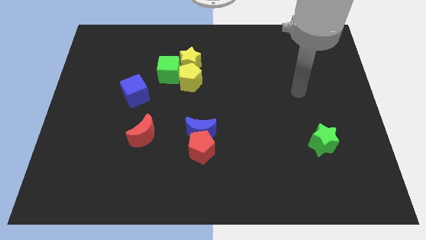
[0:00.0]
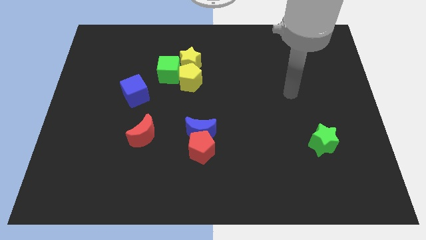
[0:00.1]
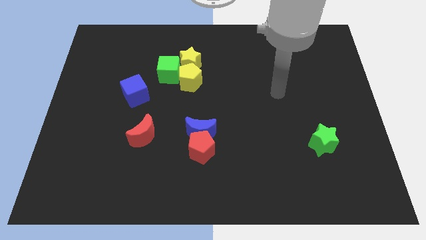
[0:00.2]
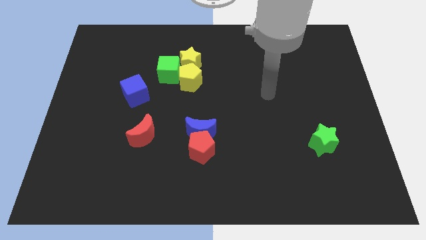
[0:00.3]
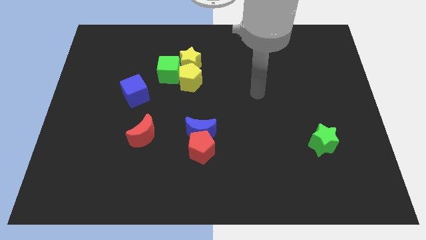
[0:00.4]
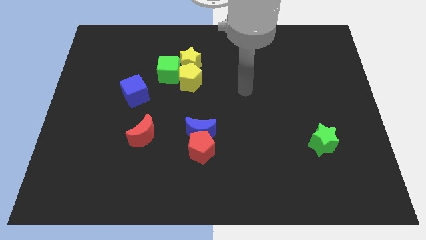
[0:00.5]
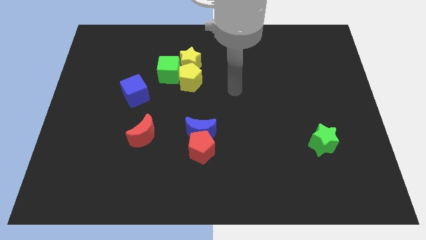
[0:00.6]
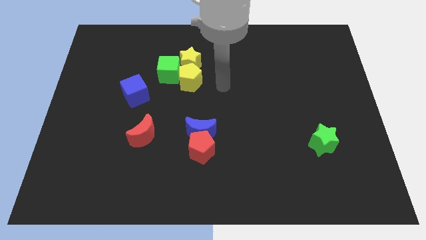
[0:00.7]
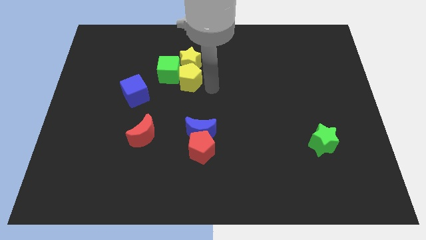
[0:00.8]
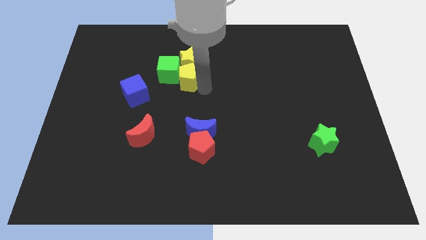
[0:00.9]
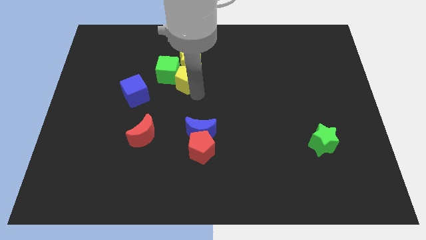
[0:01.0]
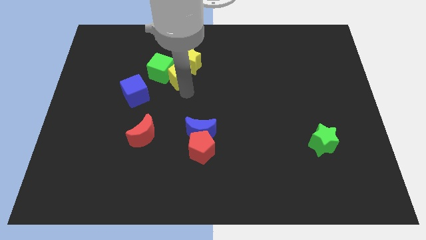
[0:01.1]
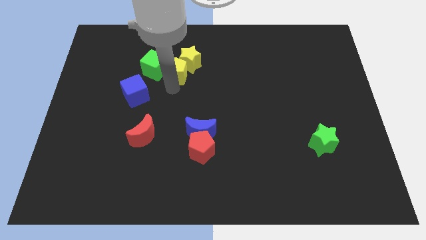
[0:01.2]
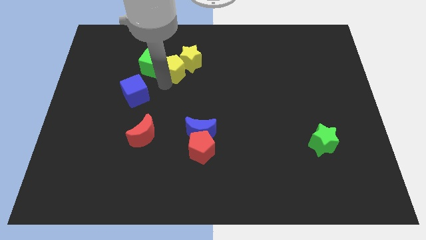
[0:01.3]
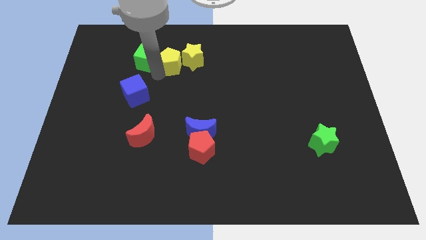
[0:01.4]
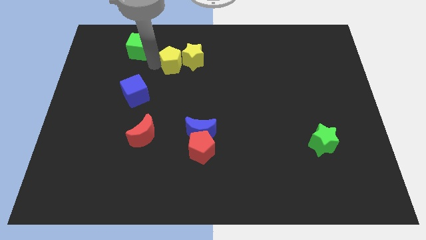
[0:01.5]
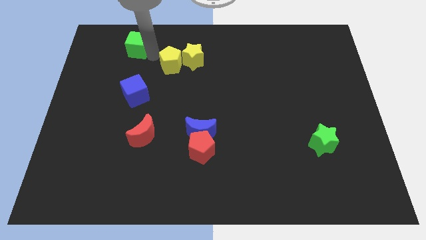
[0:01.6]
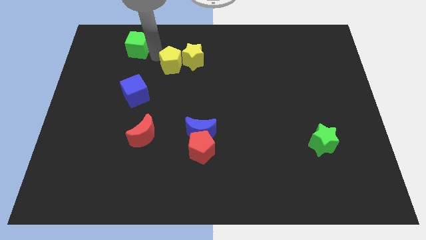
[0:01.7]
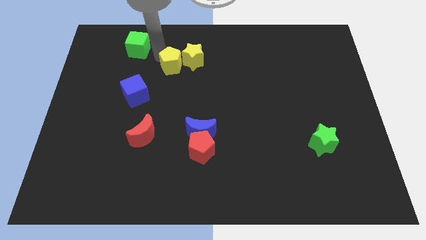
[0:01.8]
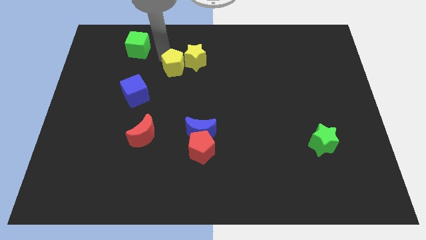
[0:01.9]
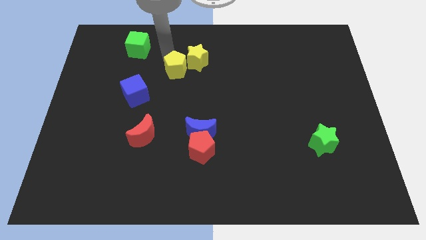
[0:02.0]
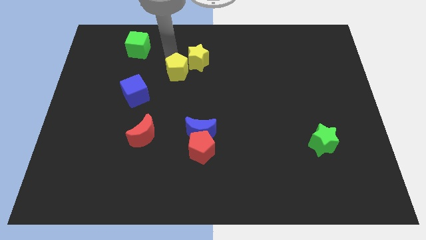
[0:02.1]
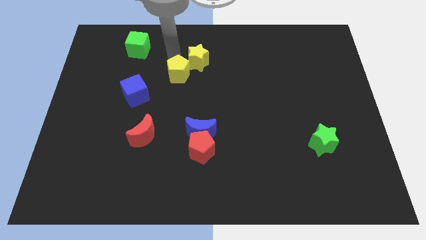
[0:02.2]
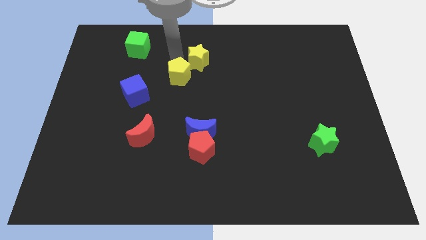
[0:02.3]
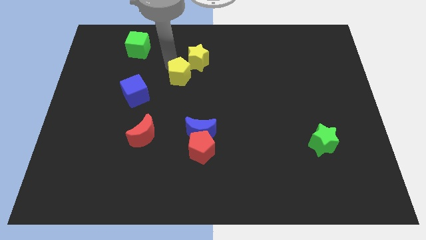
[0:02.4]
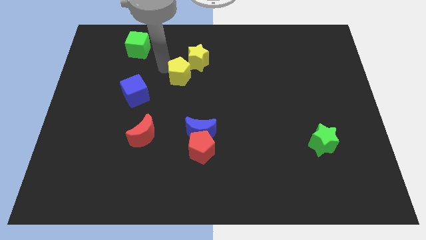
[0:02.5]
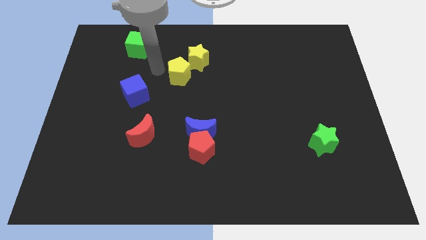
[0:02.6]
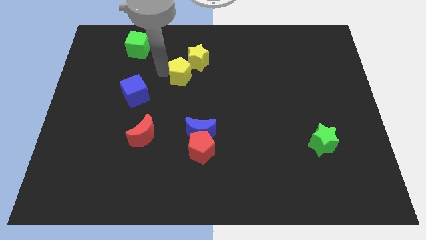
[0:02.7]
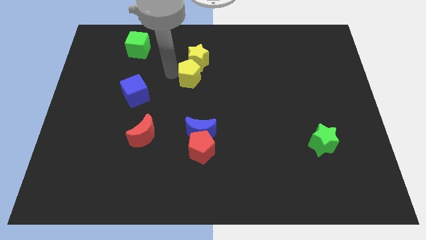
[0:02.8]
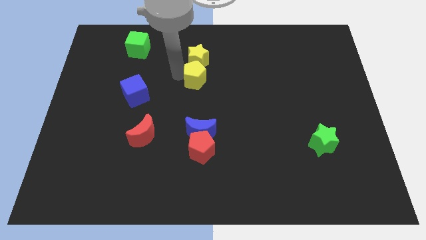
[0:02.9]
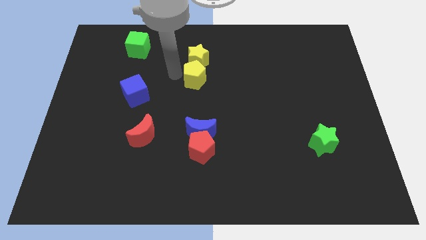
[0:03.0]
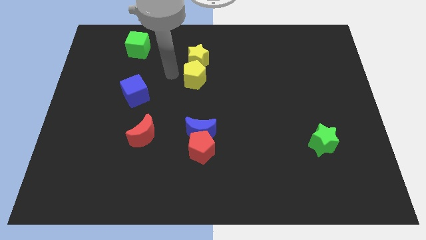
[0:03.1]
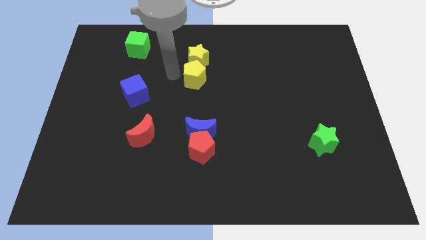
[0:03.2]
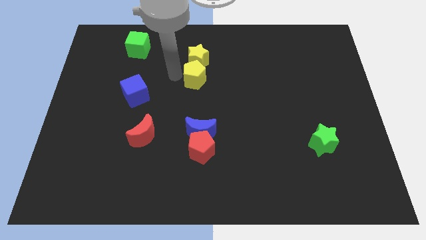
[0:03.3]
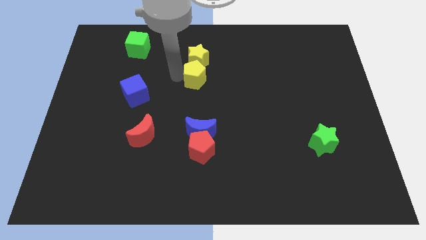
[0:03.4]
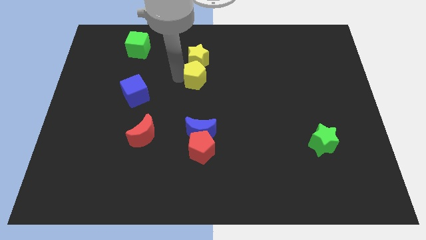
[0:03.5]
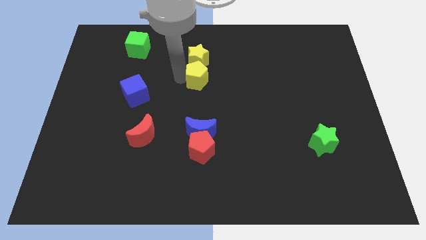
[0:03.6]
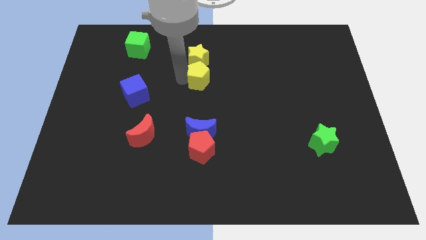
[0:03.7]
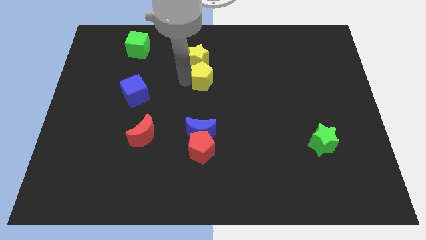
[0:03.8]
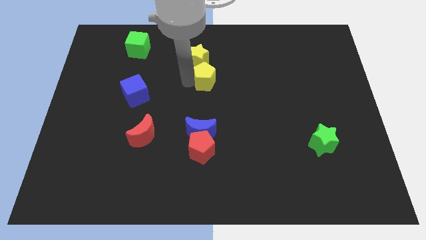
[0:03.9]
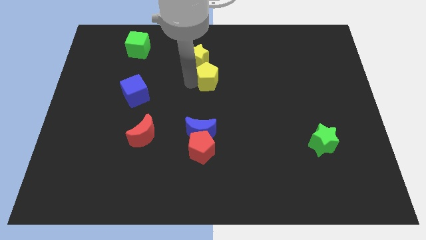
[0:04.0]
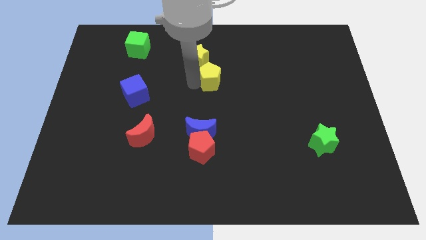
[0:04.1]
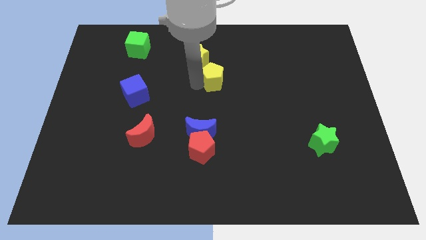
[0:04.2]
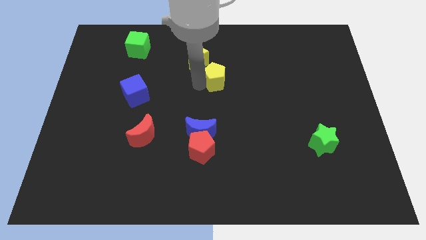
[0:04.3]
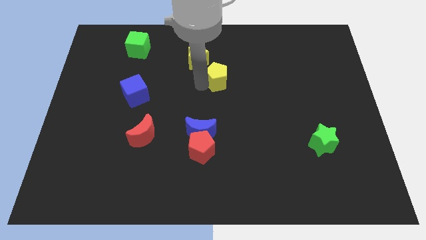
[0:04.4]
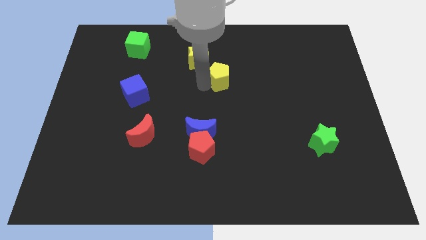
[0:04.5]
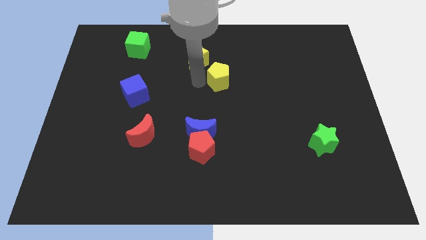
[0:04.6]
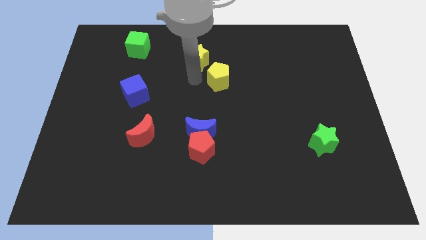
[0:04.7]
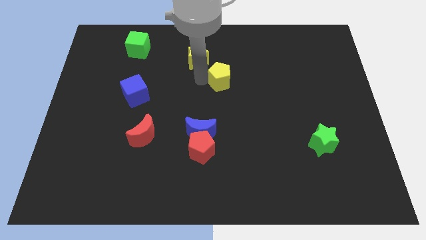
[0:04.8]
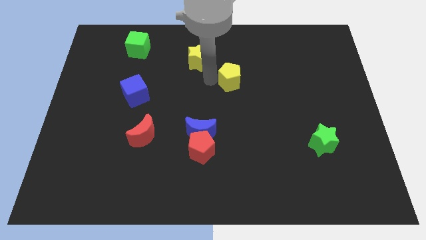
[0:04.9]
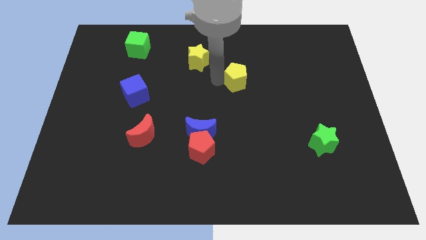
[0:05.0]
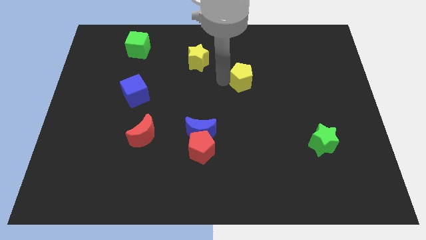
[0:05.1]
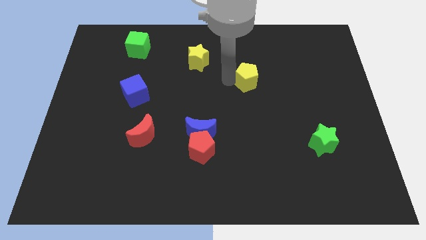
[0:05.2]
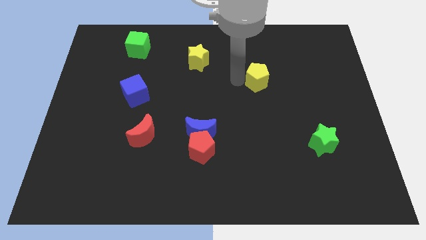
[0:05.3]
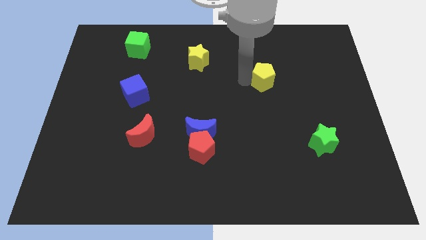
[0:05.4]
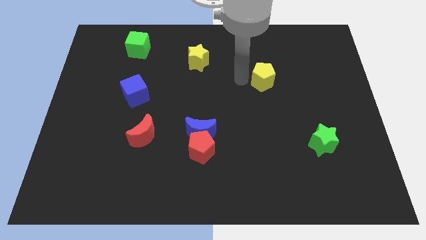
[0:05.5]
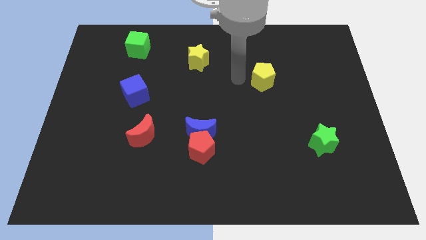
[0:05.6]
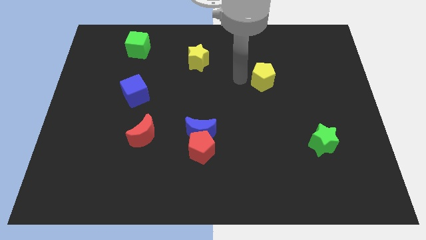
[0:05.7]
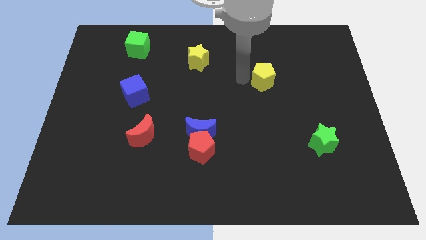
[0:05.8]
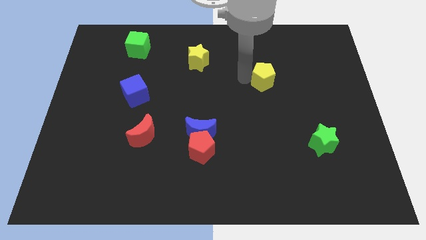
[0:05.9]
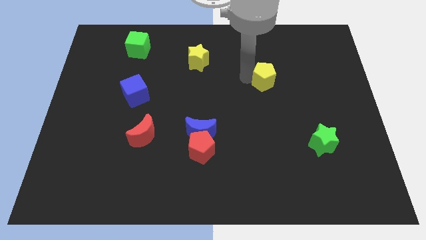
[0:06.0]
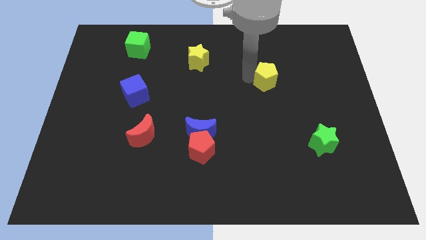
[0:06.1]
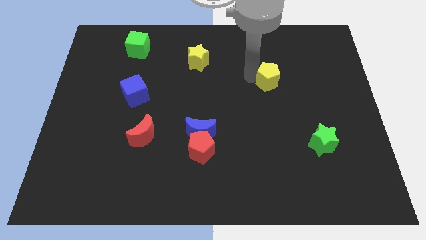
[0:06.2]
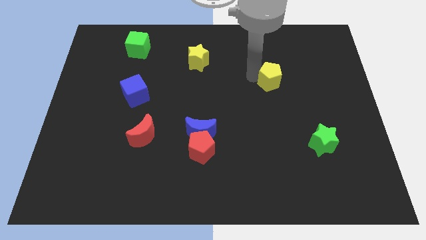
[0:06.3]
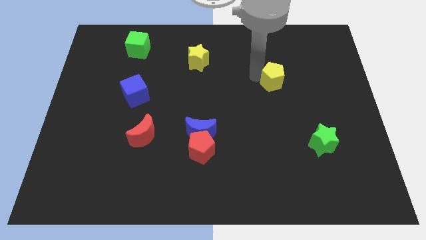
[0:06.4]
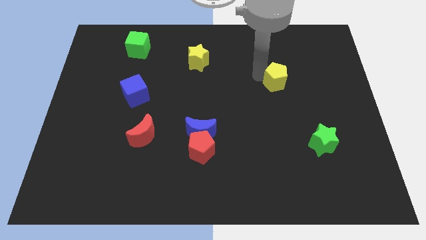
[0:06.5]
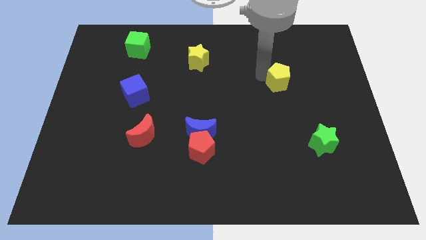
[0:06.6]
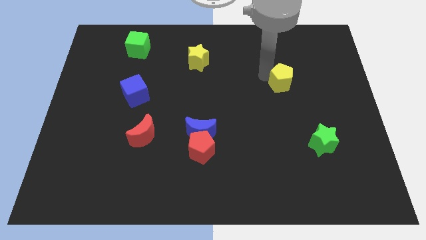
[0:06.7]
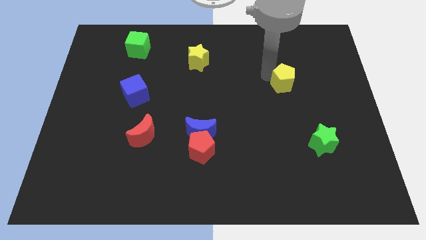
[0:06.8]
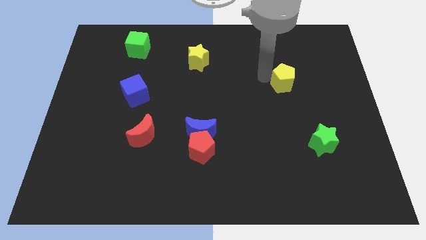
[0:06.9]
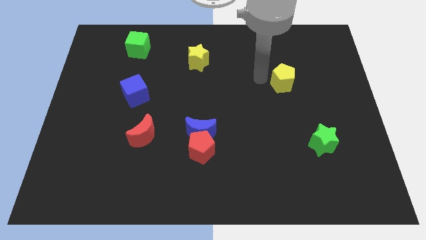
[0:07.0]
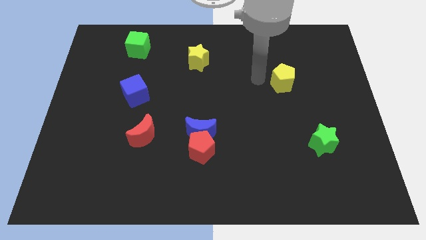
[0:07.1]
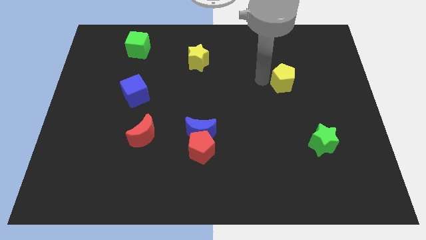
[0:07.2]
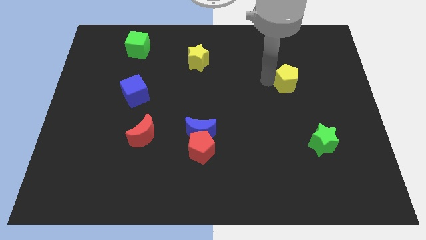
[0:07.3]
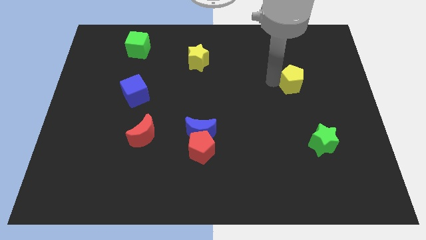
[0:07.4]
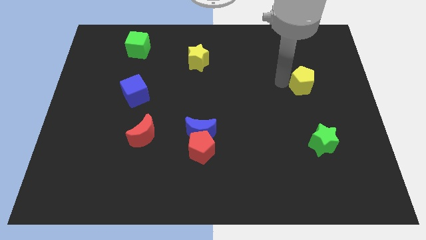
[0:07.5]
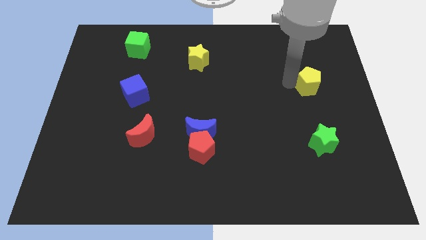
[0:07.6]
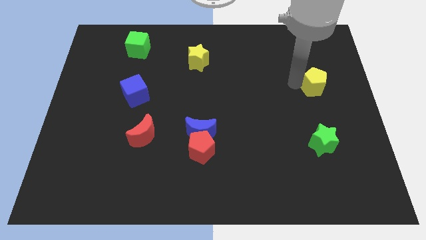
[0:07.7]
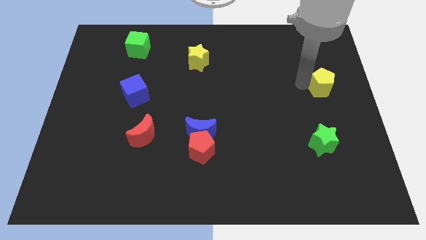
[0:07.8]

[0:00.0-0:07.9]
move the yellow pentagon to the center right

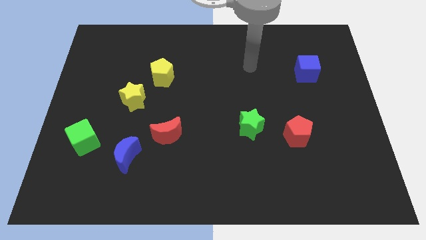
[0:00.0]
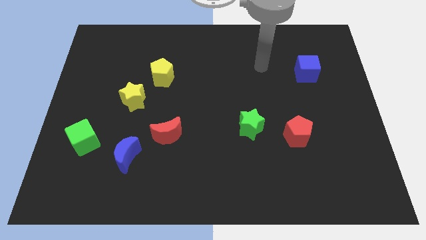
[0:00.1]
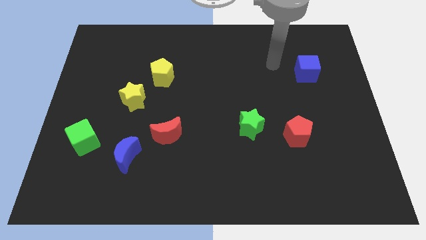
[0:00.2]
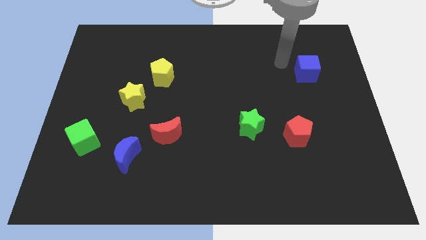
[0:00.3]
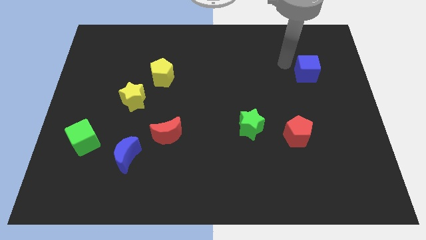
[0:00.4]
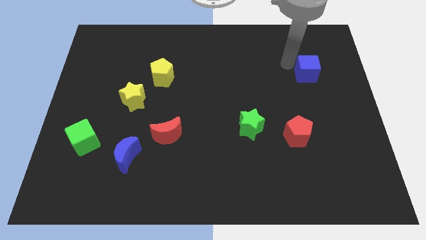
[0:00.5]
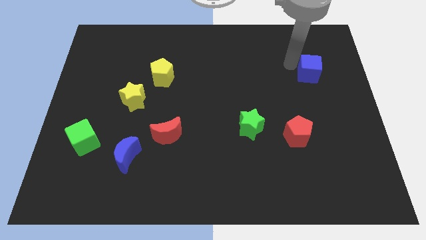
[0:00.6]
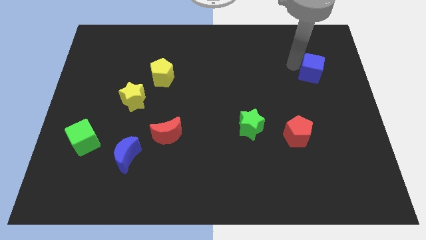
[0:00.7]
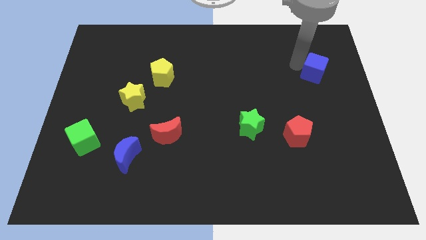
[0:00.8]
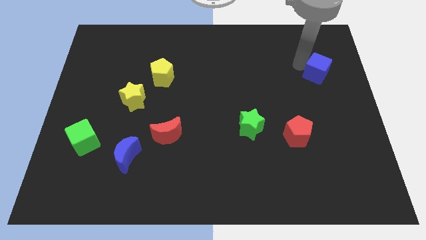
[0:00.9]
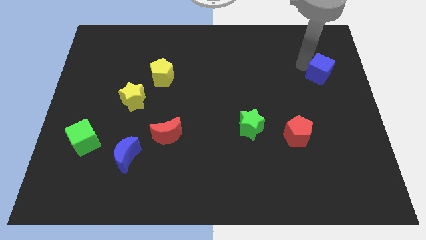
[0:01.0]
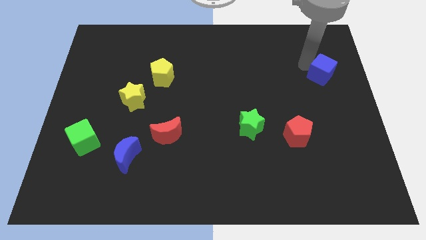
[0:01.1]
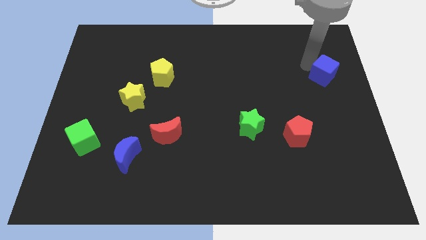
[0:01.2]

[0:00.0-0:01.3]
push the blue cube to the right side of the board
